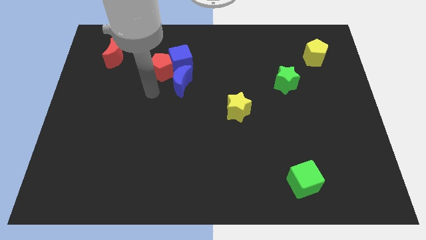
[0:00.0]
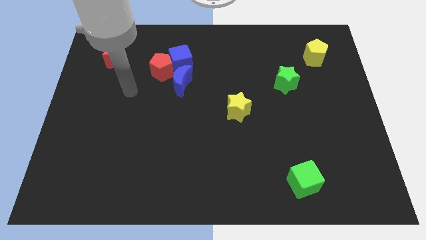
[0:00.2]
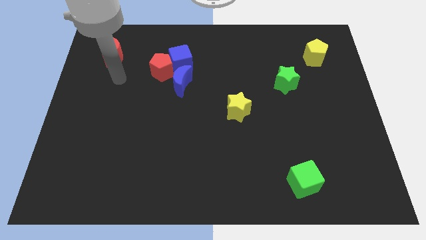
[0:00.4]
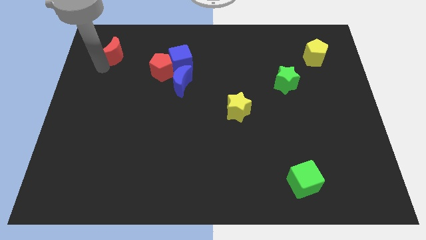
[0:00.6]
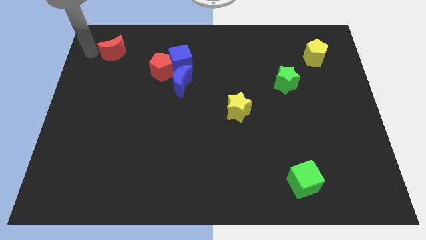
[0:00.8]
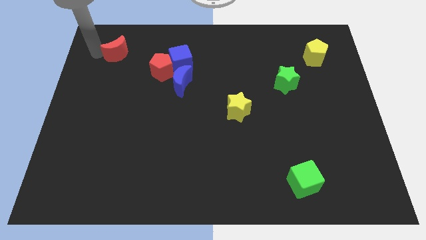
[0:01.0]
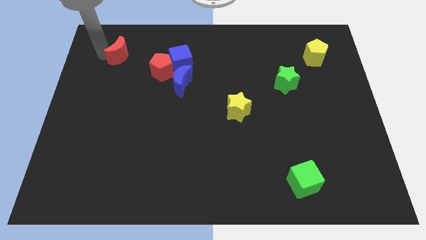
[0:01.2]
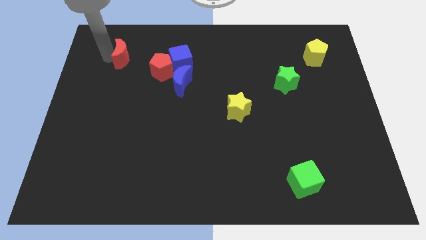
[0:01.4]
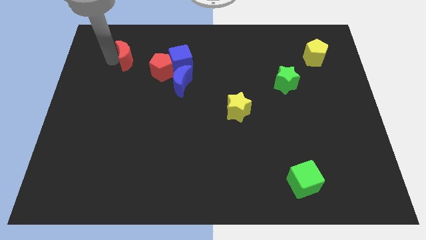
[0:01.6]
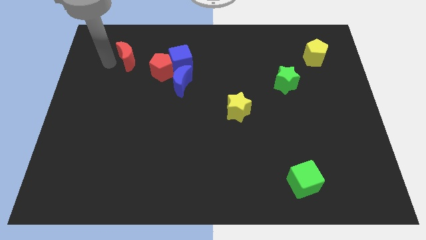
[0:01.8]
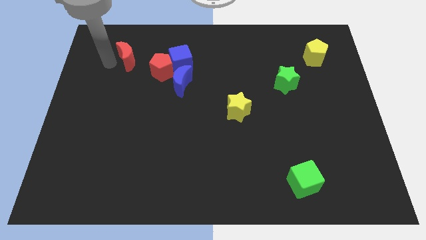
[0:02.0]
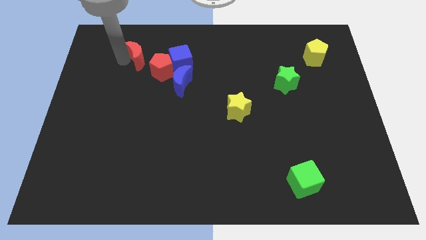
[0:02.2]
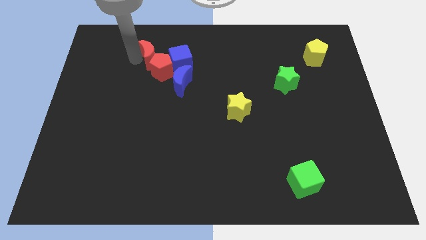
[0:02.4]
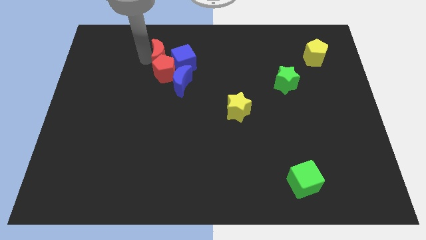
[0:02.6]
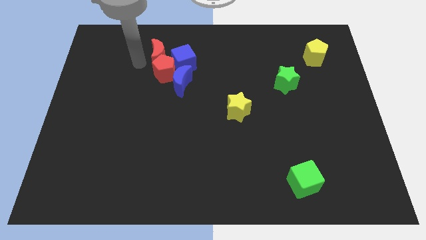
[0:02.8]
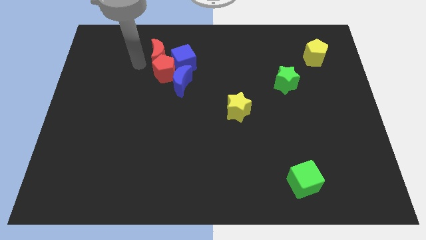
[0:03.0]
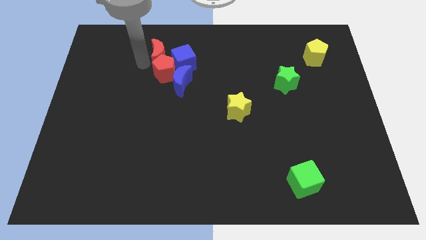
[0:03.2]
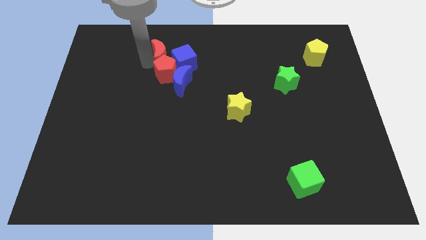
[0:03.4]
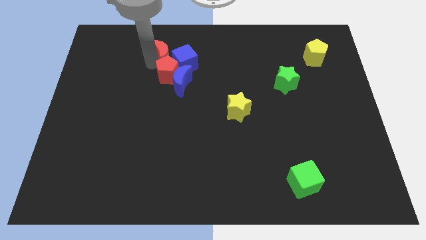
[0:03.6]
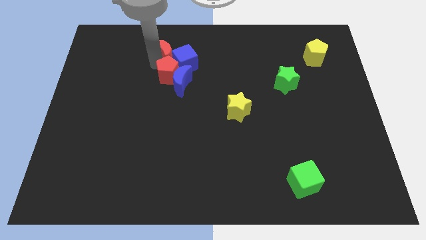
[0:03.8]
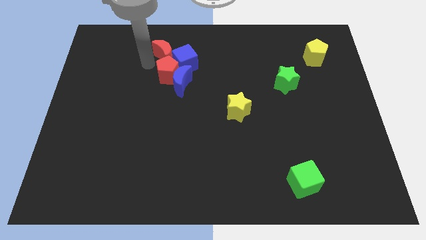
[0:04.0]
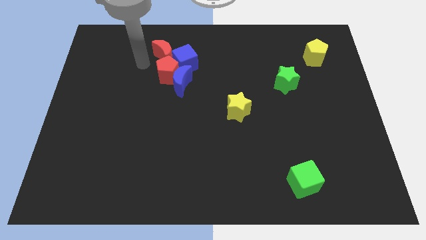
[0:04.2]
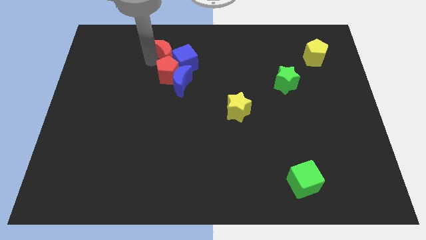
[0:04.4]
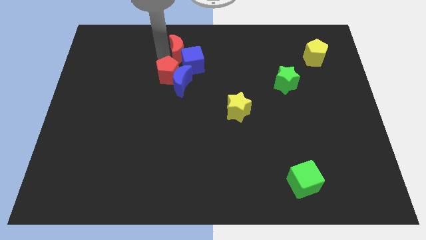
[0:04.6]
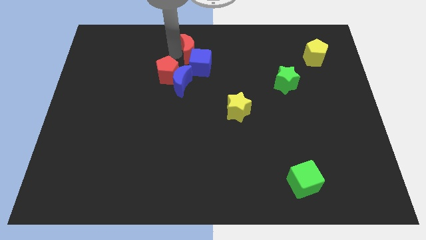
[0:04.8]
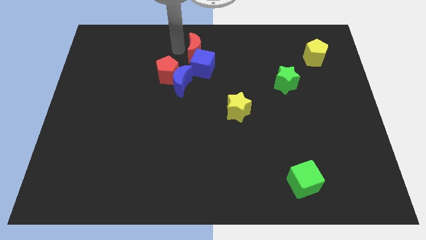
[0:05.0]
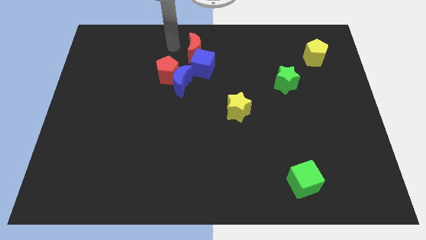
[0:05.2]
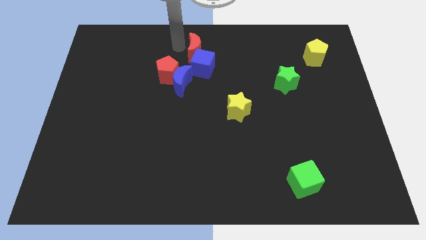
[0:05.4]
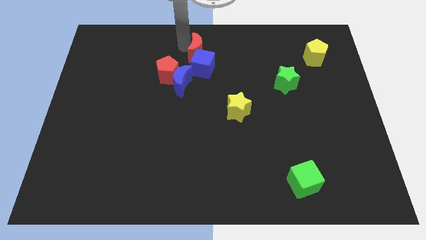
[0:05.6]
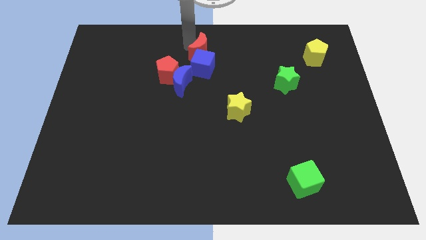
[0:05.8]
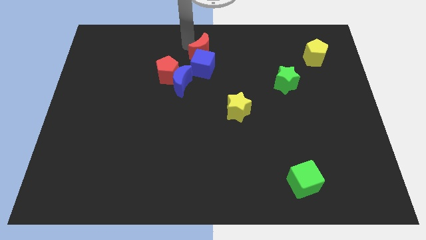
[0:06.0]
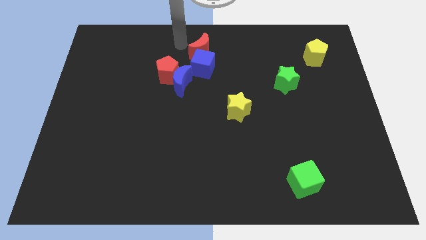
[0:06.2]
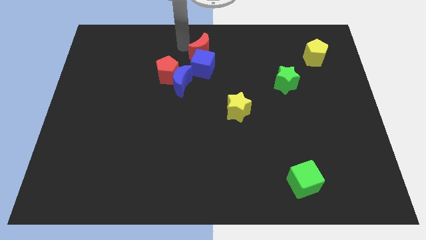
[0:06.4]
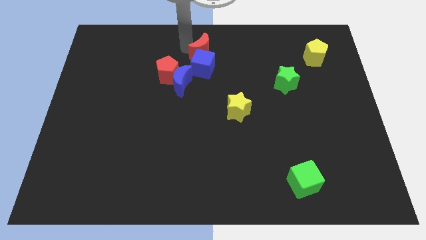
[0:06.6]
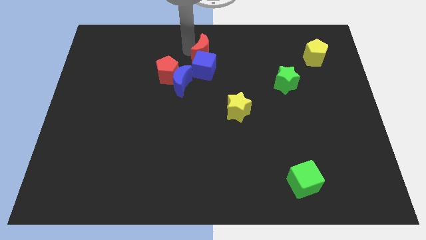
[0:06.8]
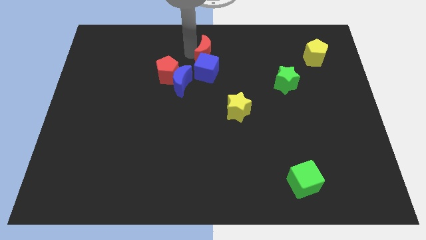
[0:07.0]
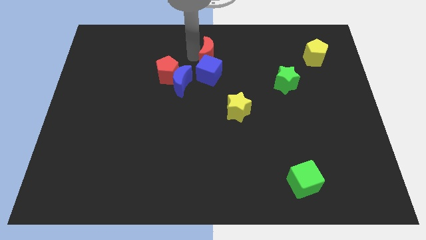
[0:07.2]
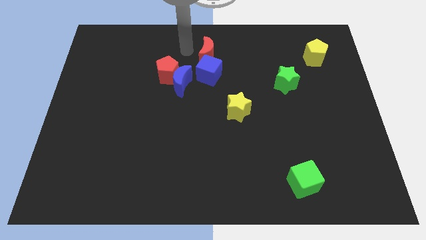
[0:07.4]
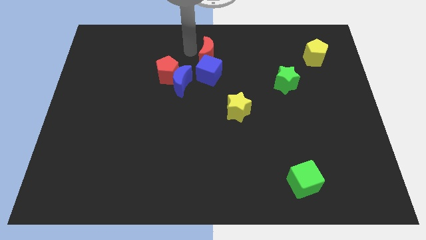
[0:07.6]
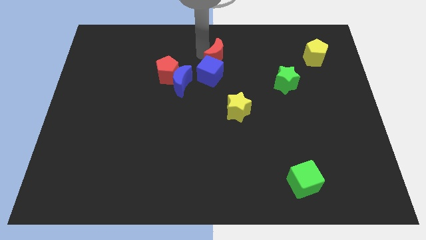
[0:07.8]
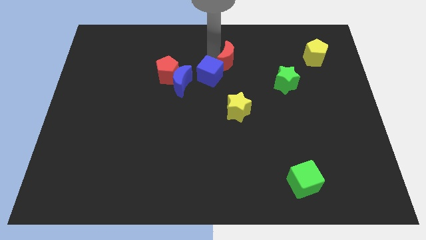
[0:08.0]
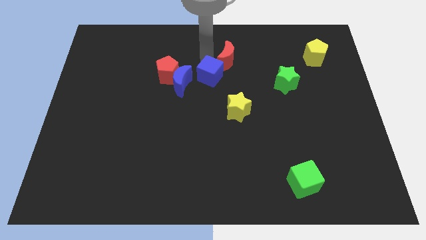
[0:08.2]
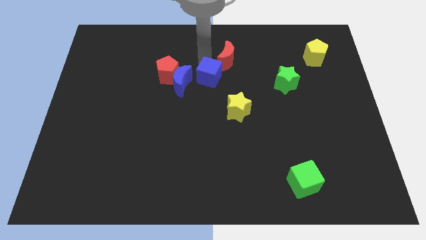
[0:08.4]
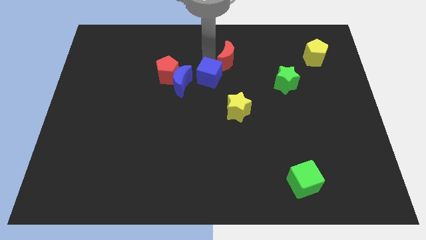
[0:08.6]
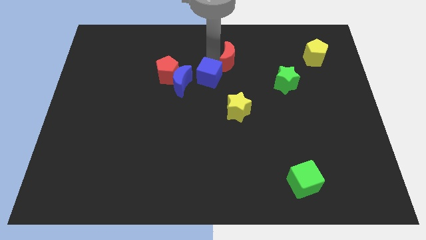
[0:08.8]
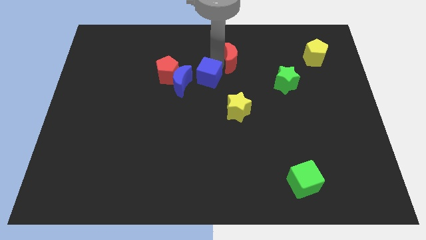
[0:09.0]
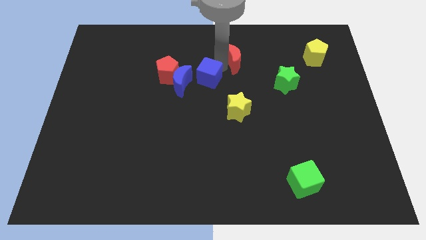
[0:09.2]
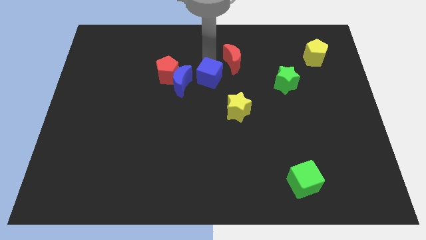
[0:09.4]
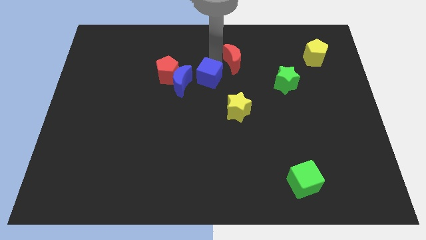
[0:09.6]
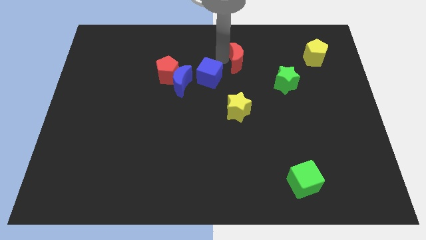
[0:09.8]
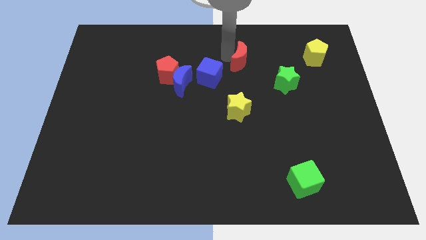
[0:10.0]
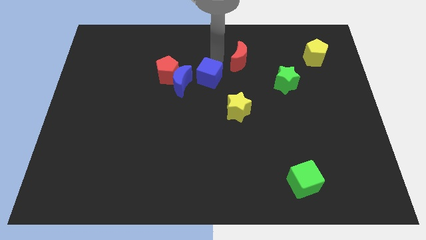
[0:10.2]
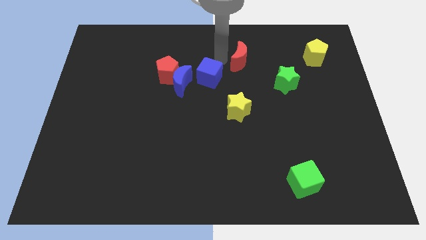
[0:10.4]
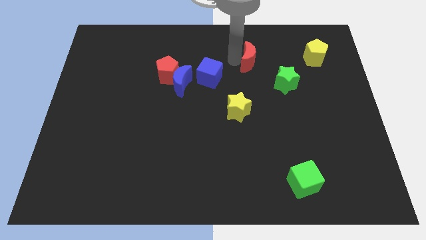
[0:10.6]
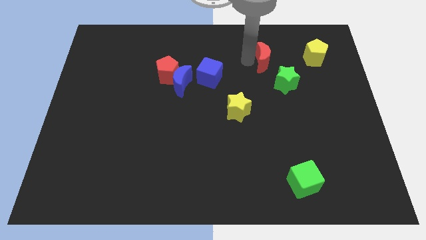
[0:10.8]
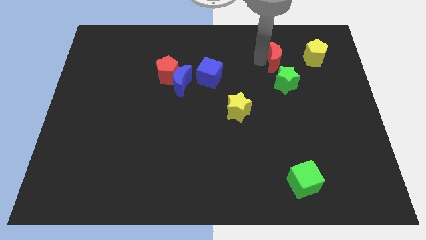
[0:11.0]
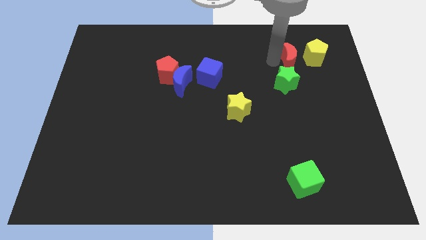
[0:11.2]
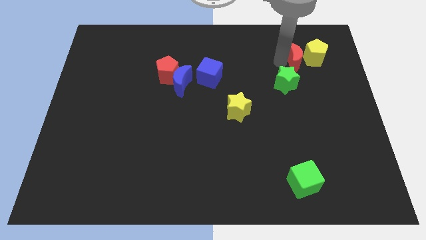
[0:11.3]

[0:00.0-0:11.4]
push the red moon close to the yellow pentagon

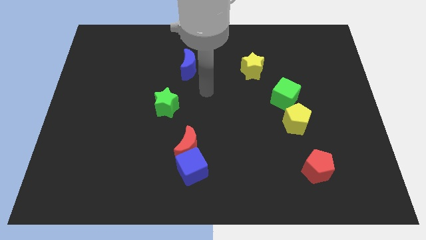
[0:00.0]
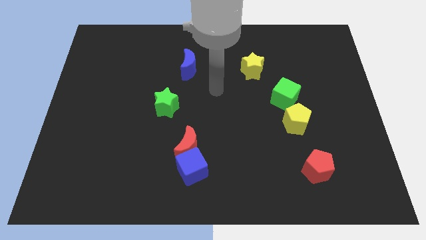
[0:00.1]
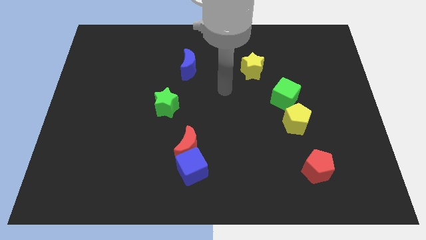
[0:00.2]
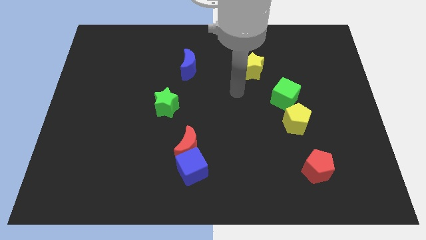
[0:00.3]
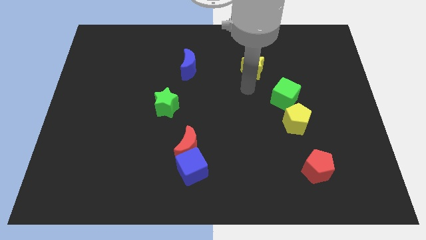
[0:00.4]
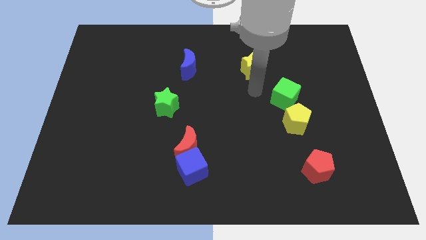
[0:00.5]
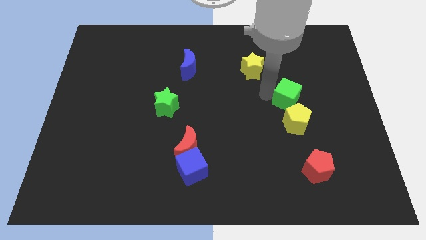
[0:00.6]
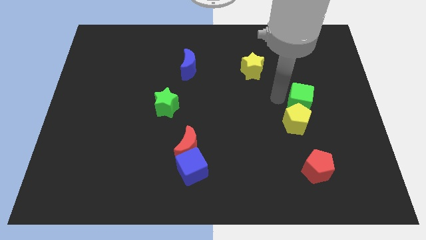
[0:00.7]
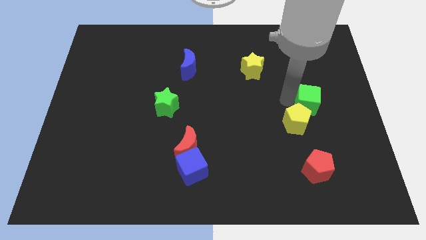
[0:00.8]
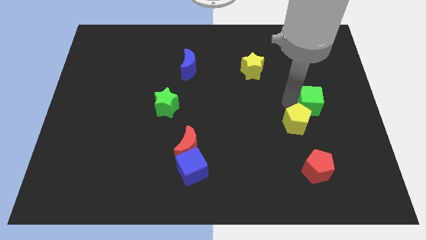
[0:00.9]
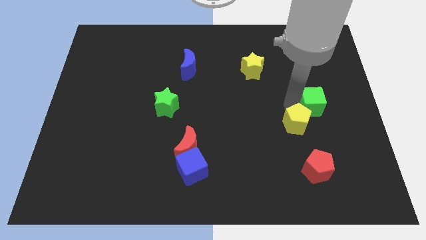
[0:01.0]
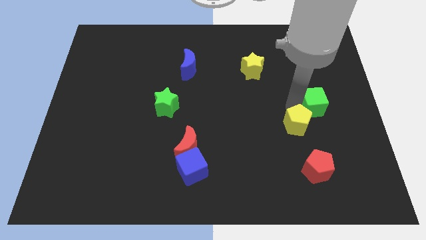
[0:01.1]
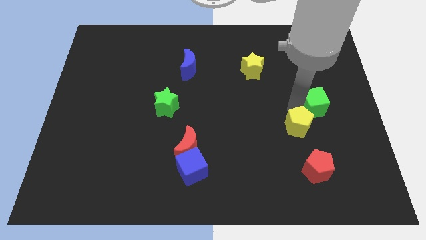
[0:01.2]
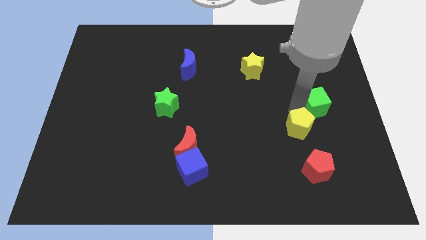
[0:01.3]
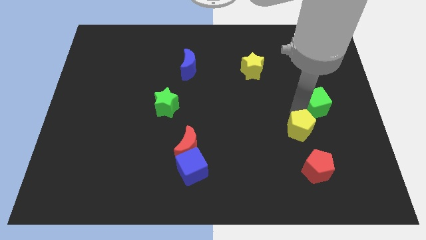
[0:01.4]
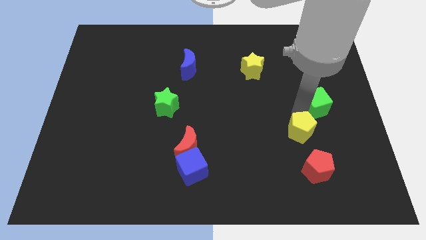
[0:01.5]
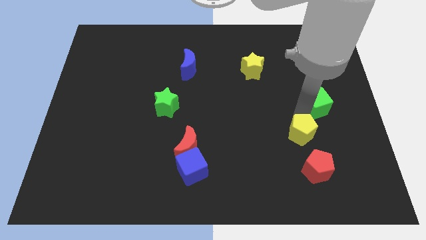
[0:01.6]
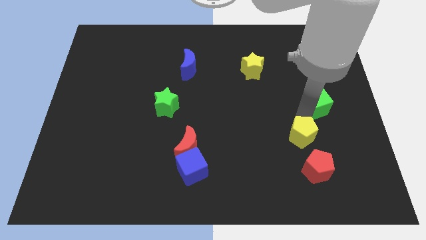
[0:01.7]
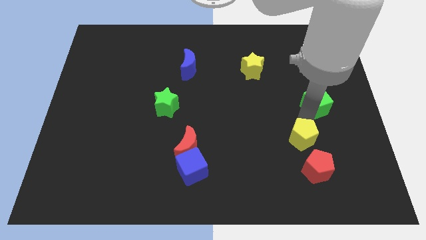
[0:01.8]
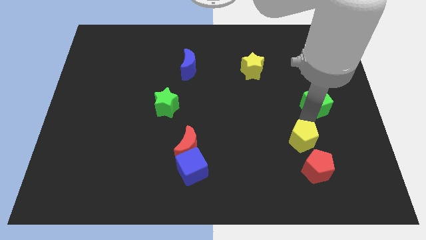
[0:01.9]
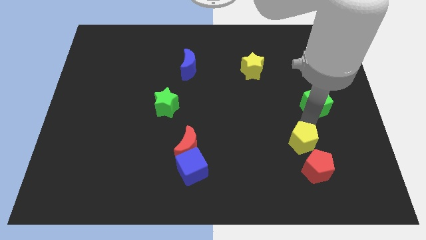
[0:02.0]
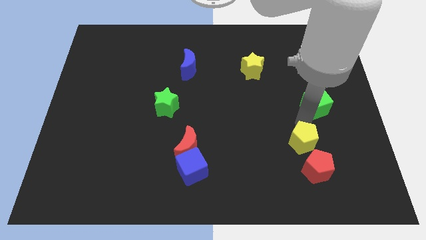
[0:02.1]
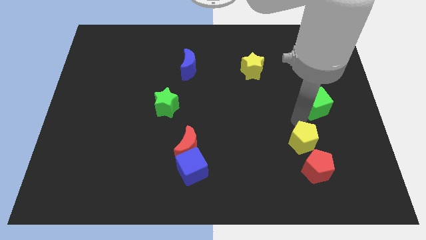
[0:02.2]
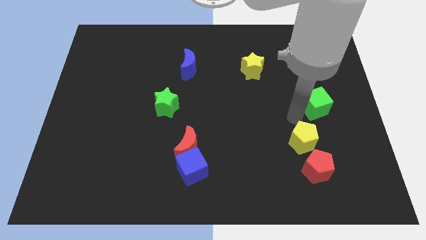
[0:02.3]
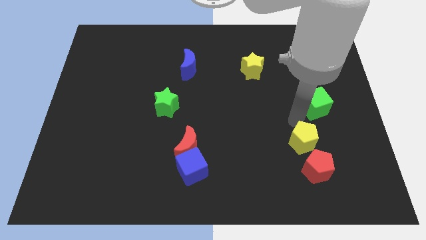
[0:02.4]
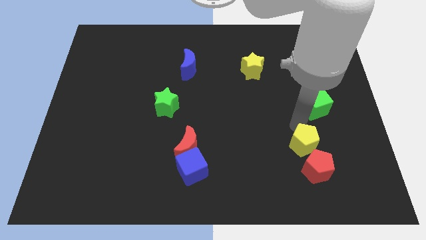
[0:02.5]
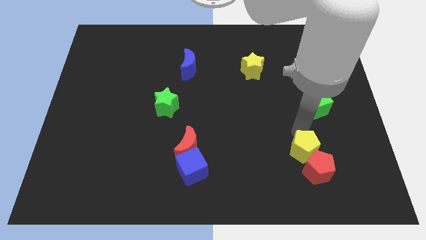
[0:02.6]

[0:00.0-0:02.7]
slide the yellow pentagon towards the red pentagon
